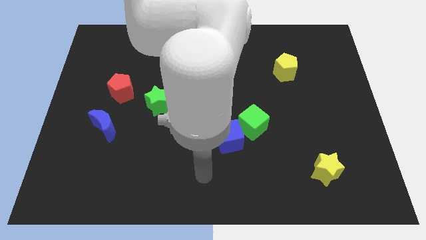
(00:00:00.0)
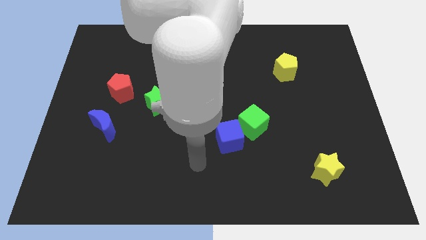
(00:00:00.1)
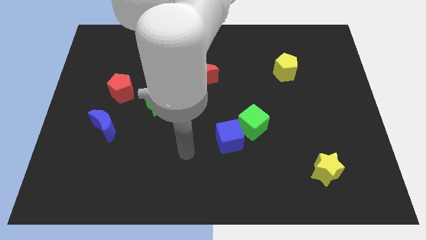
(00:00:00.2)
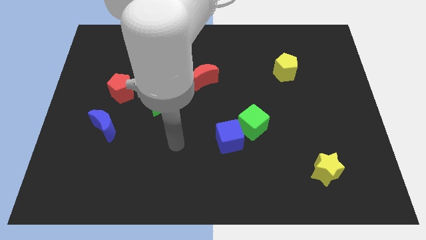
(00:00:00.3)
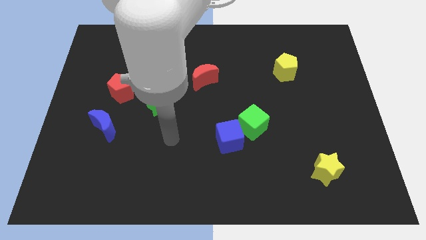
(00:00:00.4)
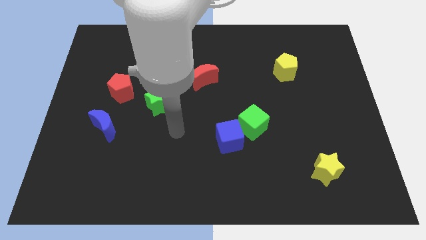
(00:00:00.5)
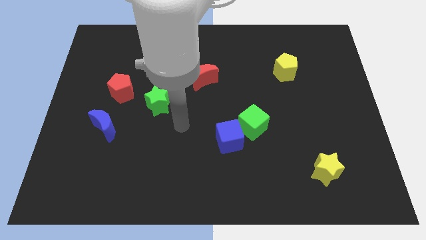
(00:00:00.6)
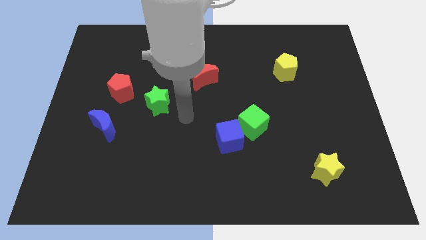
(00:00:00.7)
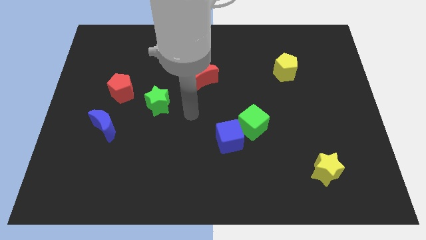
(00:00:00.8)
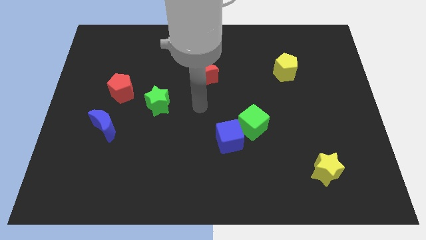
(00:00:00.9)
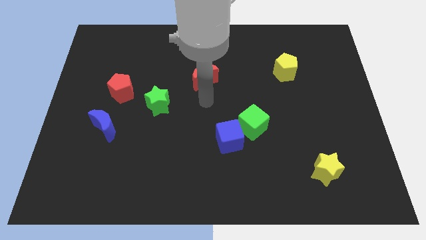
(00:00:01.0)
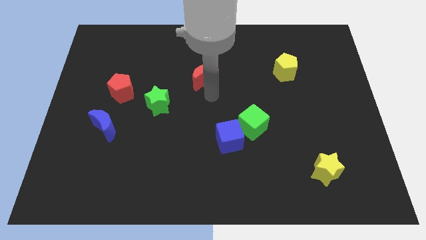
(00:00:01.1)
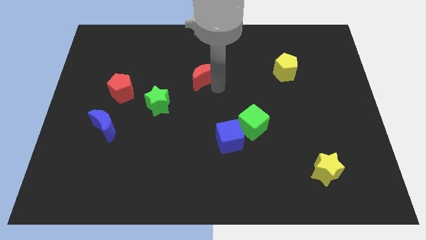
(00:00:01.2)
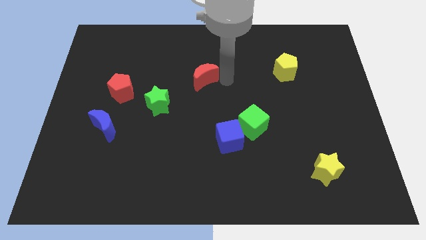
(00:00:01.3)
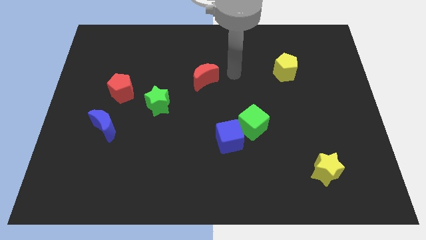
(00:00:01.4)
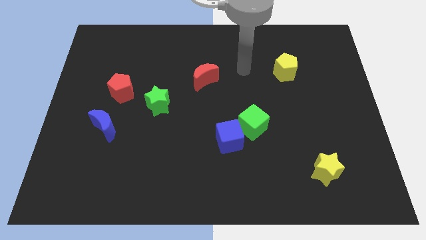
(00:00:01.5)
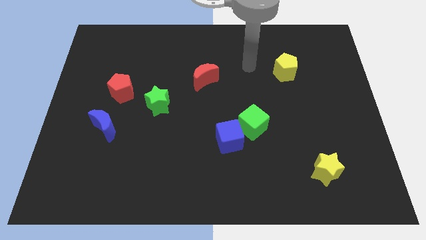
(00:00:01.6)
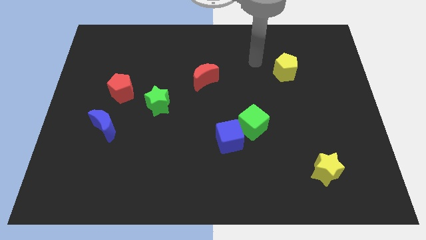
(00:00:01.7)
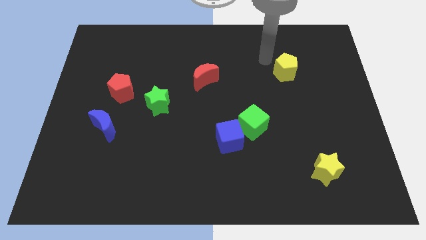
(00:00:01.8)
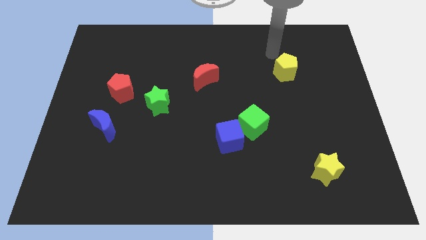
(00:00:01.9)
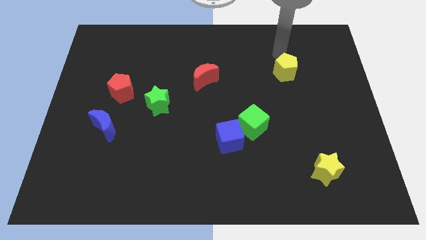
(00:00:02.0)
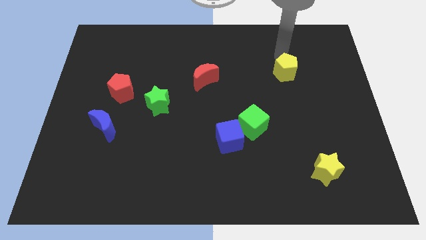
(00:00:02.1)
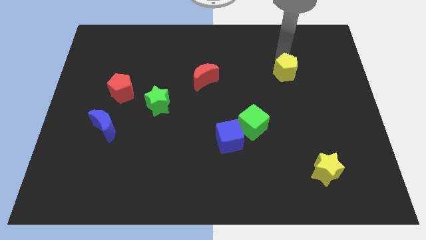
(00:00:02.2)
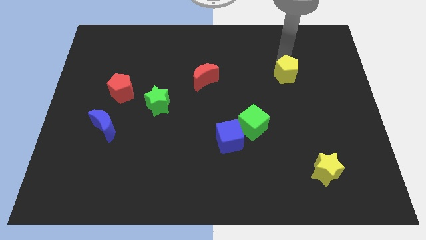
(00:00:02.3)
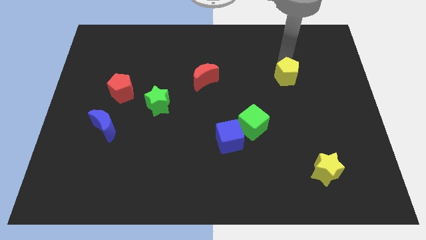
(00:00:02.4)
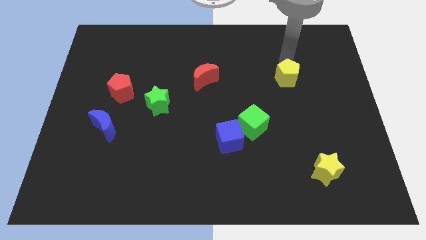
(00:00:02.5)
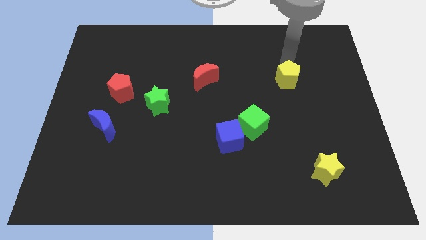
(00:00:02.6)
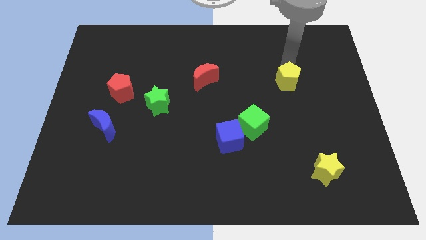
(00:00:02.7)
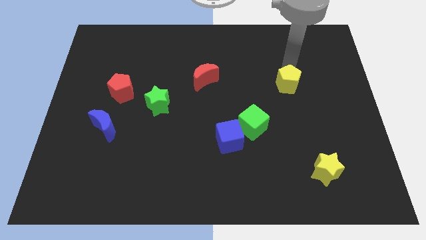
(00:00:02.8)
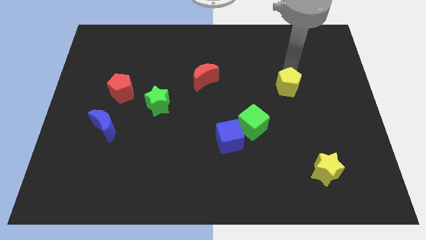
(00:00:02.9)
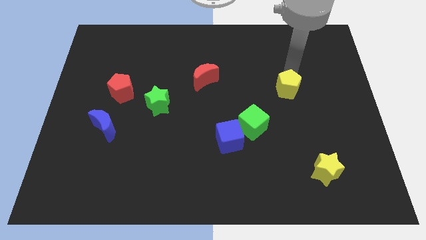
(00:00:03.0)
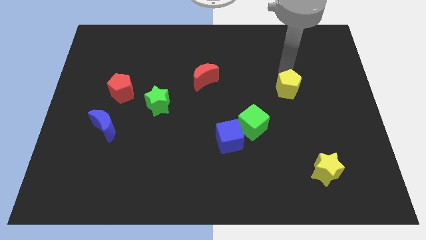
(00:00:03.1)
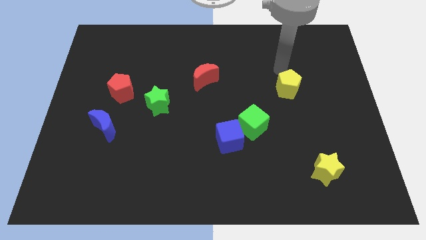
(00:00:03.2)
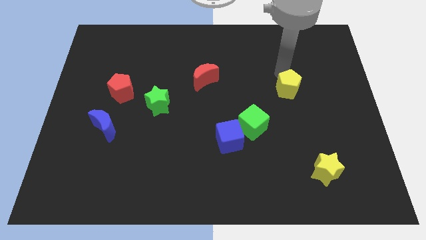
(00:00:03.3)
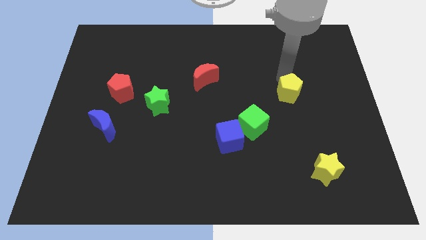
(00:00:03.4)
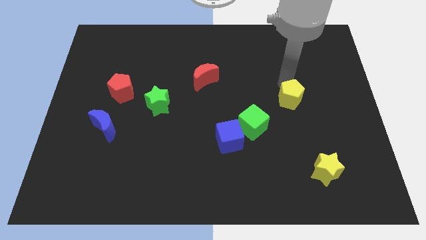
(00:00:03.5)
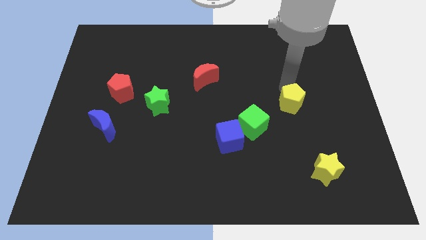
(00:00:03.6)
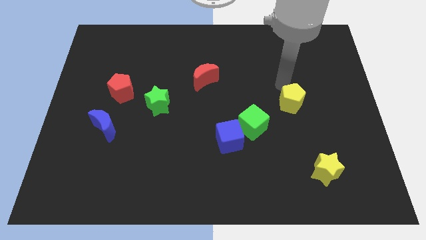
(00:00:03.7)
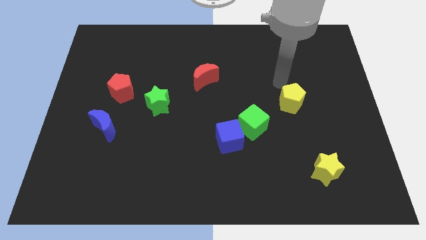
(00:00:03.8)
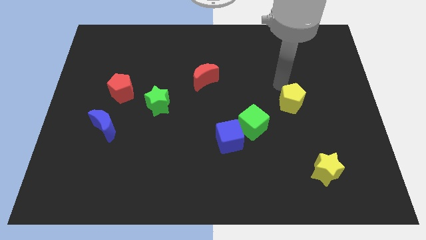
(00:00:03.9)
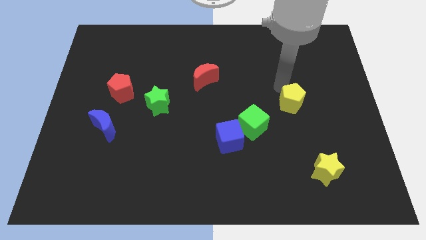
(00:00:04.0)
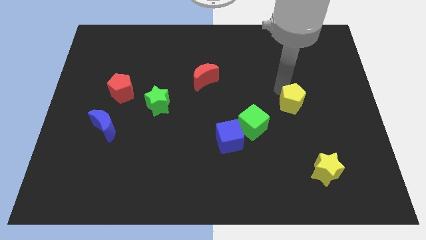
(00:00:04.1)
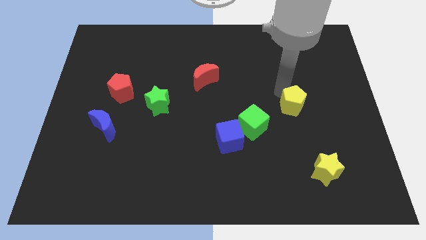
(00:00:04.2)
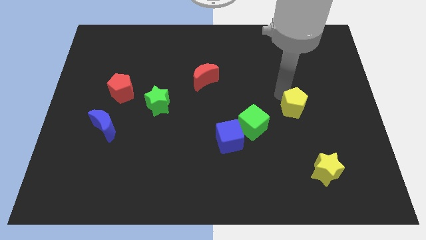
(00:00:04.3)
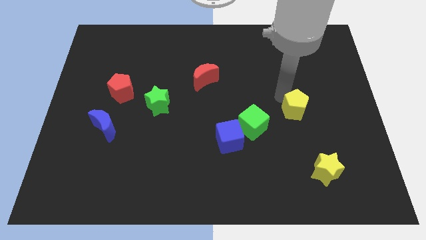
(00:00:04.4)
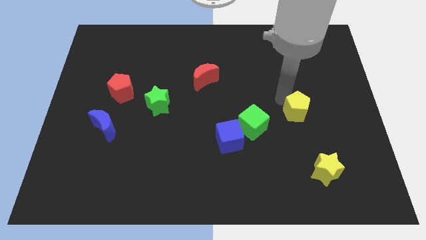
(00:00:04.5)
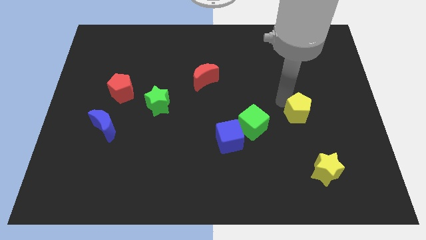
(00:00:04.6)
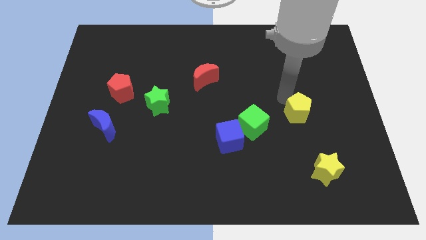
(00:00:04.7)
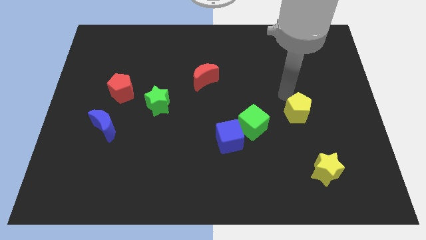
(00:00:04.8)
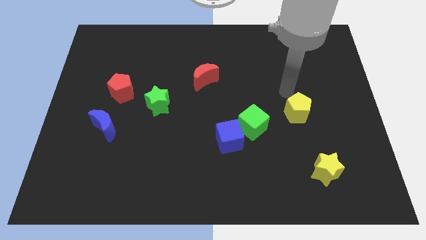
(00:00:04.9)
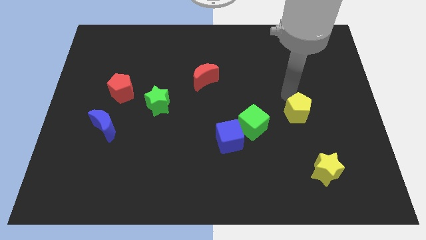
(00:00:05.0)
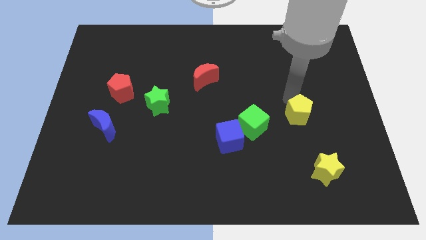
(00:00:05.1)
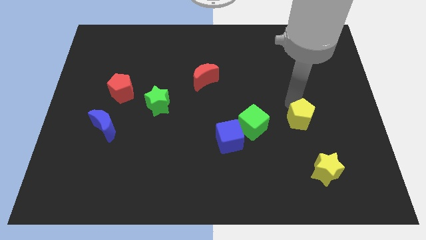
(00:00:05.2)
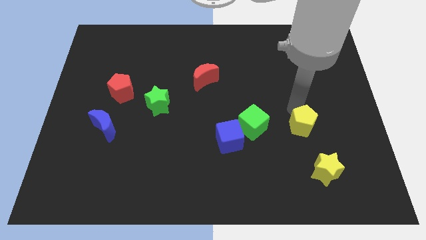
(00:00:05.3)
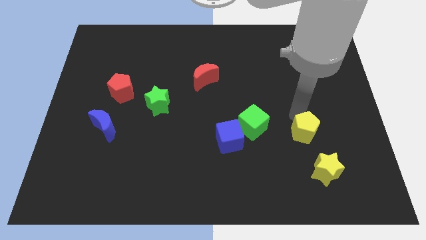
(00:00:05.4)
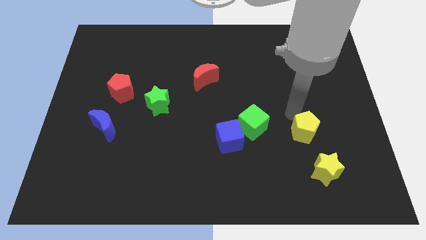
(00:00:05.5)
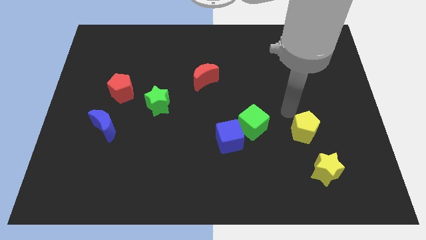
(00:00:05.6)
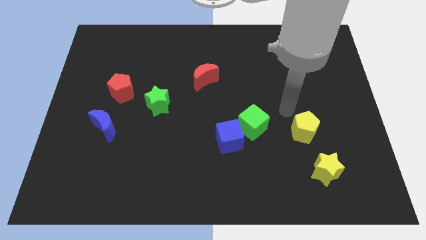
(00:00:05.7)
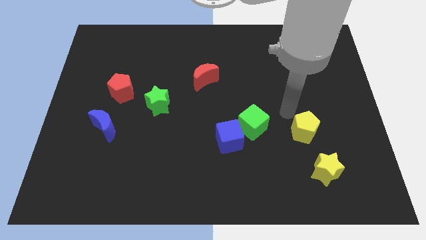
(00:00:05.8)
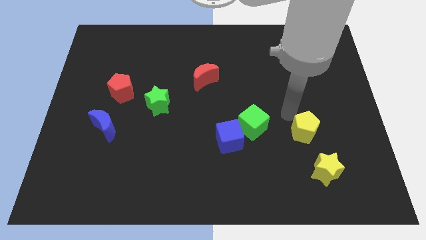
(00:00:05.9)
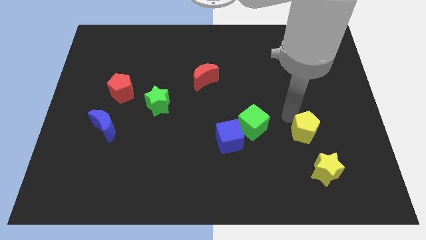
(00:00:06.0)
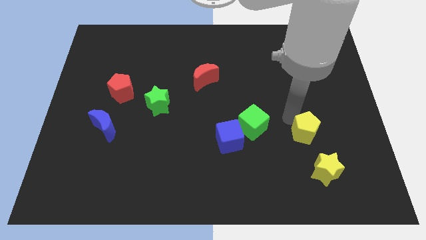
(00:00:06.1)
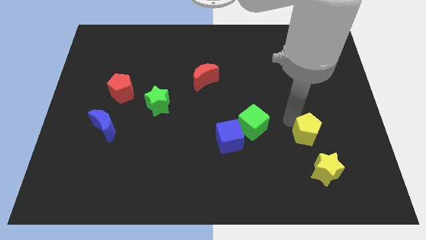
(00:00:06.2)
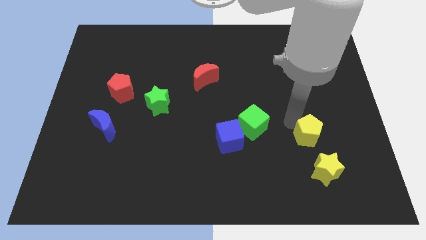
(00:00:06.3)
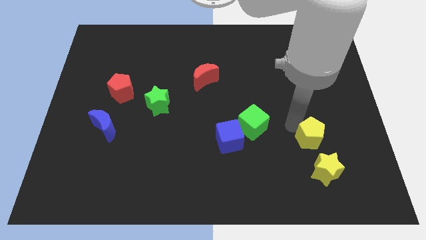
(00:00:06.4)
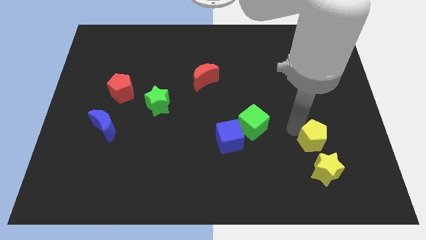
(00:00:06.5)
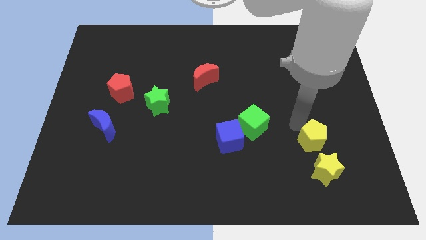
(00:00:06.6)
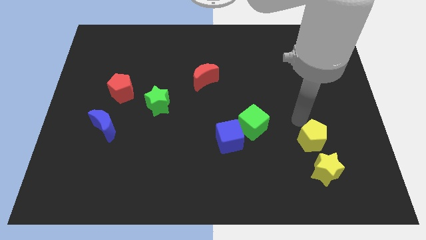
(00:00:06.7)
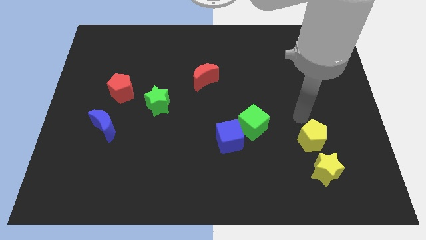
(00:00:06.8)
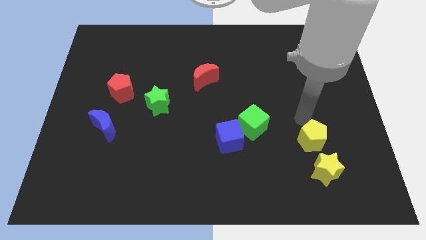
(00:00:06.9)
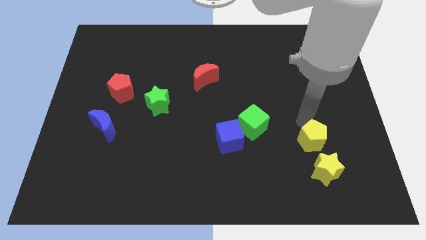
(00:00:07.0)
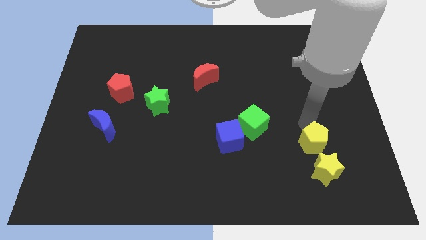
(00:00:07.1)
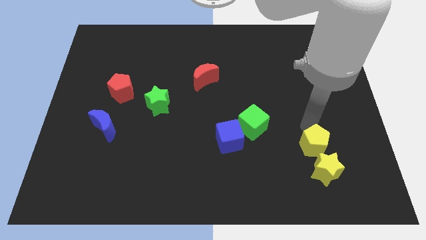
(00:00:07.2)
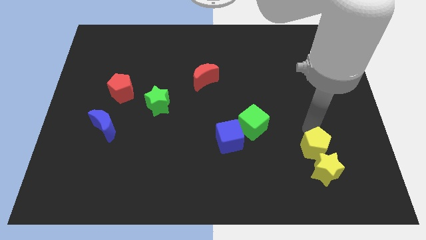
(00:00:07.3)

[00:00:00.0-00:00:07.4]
put the yellow pentagon close to the yellow star

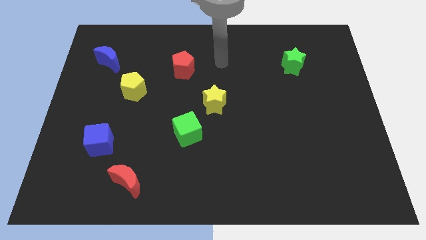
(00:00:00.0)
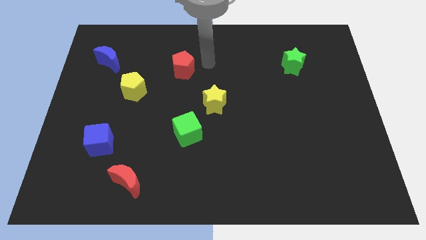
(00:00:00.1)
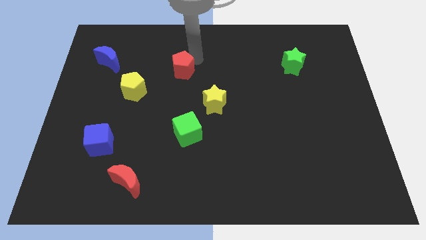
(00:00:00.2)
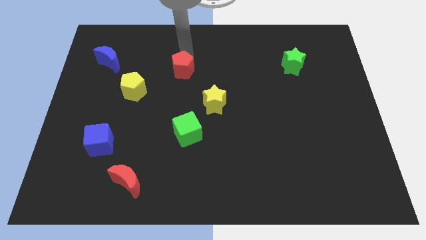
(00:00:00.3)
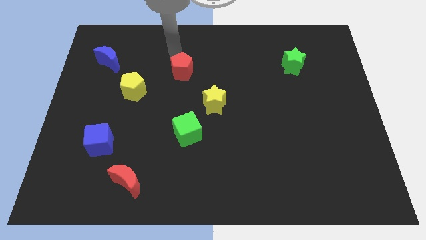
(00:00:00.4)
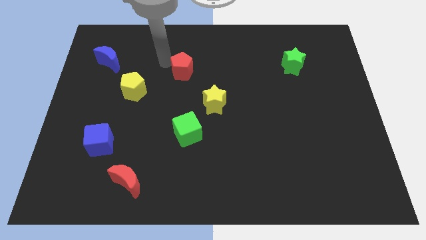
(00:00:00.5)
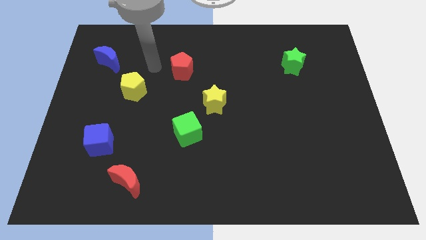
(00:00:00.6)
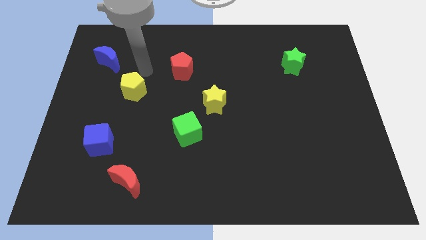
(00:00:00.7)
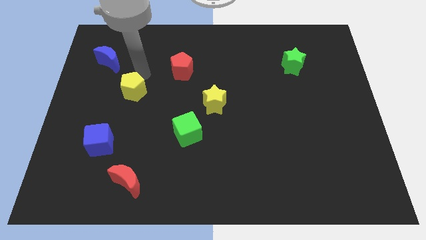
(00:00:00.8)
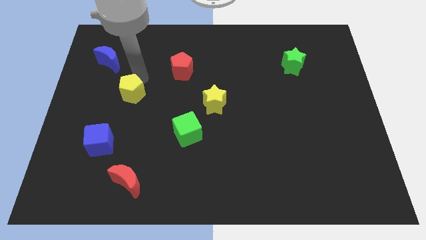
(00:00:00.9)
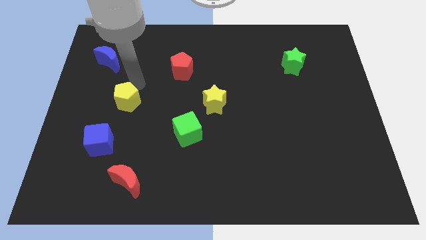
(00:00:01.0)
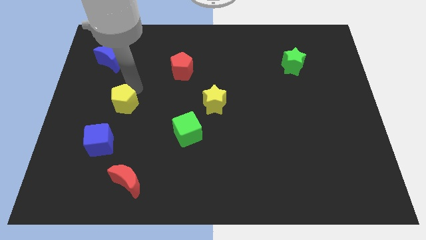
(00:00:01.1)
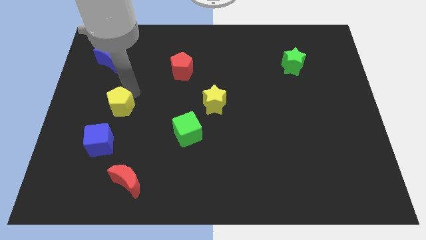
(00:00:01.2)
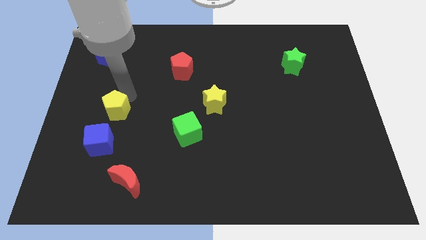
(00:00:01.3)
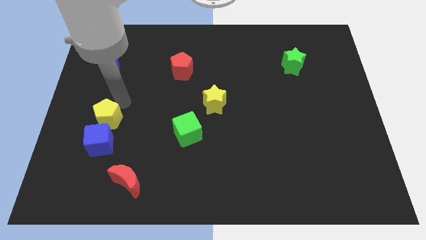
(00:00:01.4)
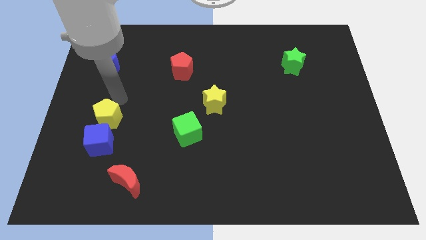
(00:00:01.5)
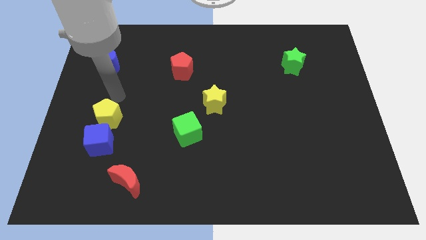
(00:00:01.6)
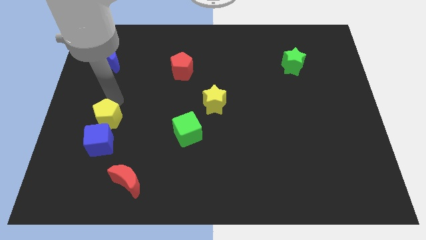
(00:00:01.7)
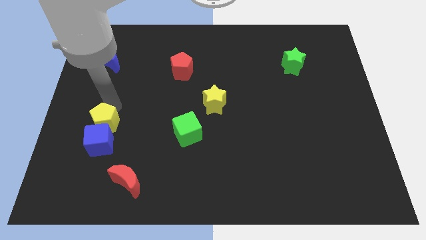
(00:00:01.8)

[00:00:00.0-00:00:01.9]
move the yellow pentagon to the blue cube
